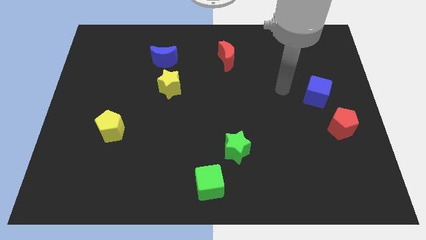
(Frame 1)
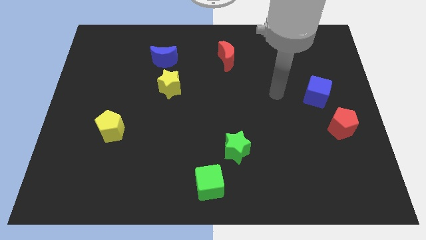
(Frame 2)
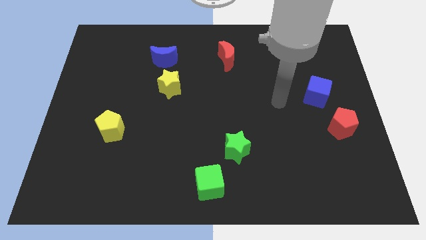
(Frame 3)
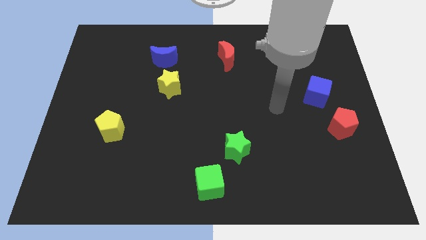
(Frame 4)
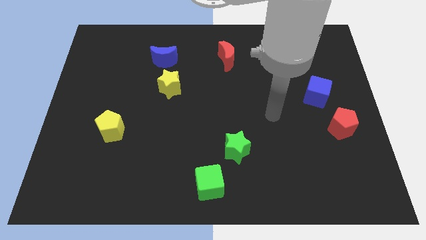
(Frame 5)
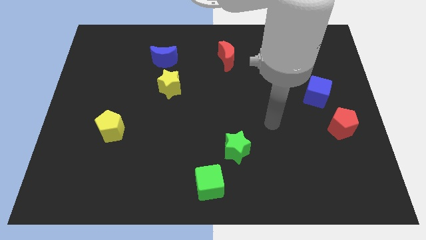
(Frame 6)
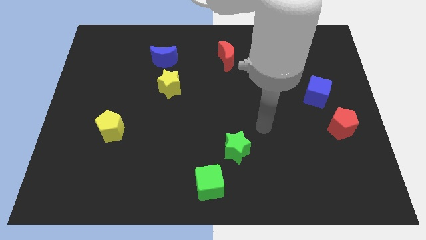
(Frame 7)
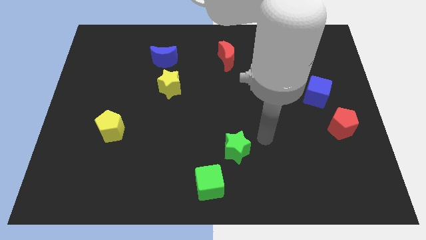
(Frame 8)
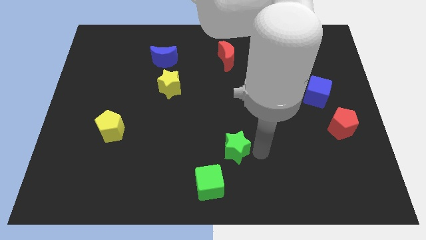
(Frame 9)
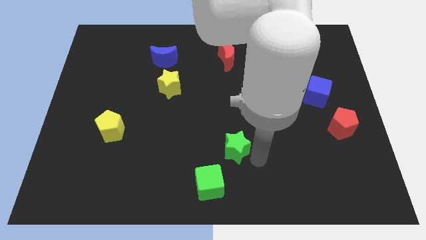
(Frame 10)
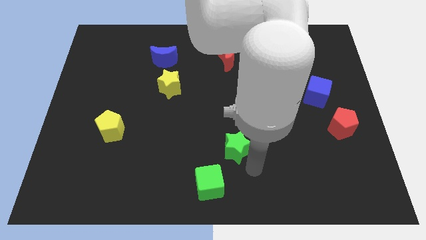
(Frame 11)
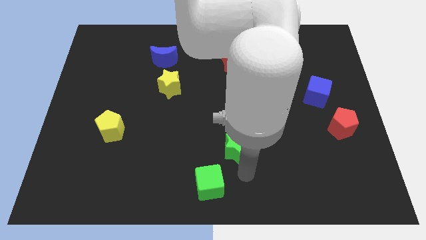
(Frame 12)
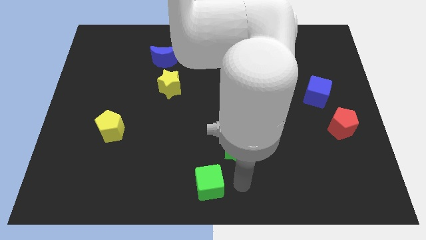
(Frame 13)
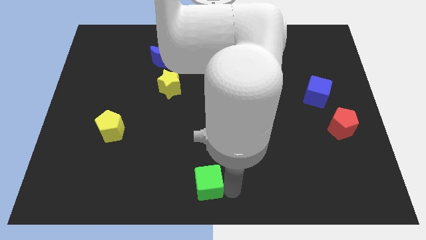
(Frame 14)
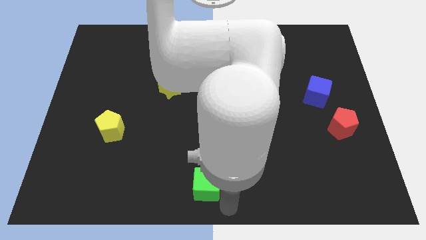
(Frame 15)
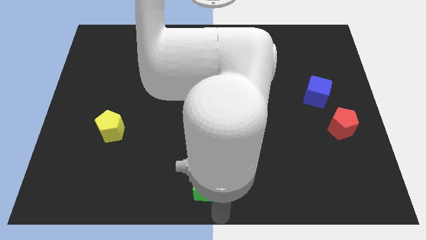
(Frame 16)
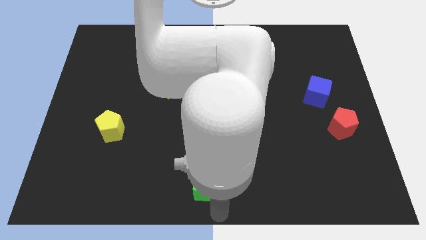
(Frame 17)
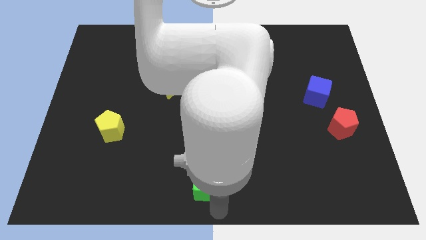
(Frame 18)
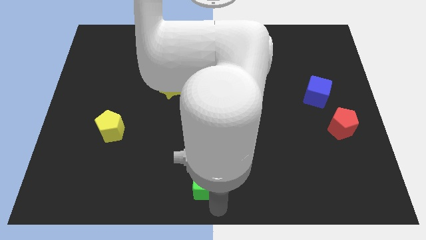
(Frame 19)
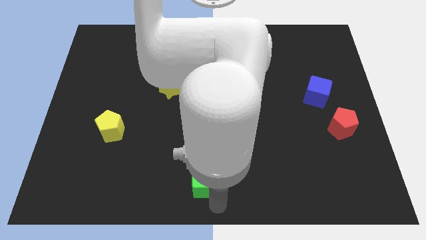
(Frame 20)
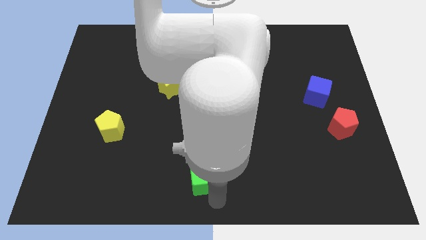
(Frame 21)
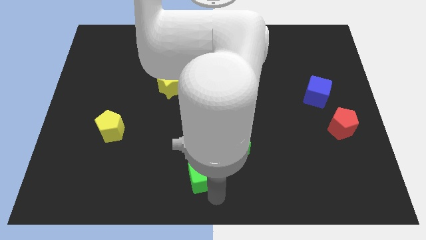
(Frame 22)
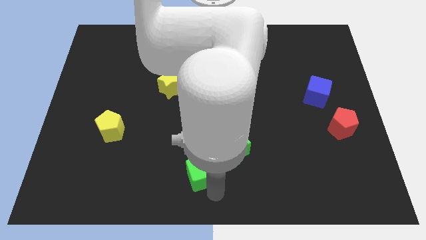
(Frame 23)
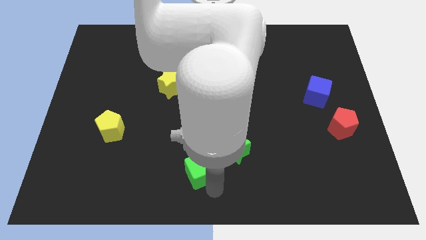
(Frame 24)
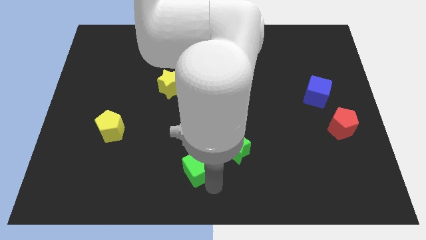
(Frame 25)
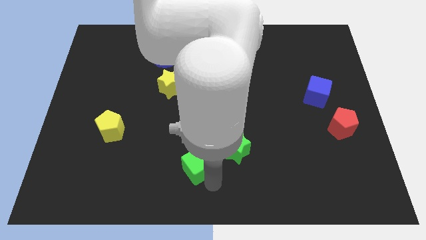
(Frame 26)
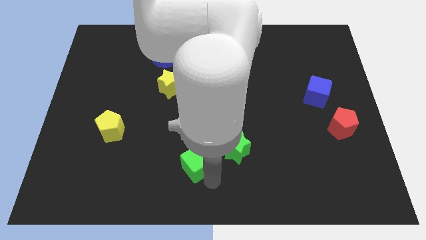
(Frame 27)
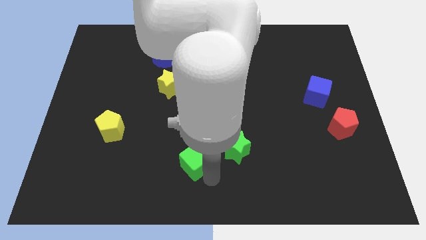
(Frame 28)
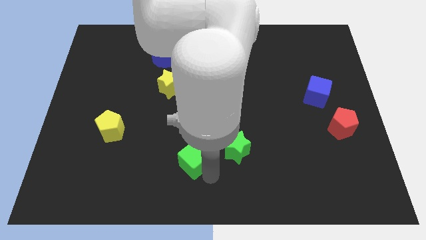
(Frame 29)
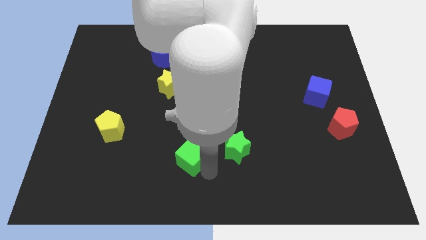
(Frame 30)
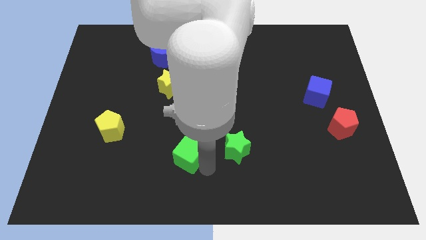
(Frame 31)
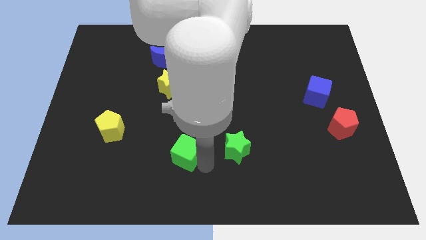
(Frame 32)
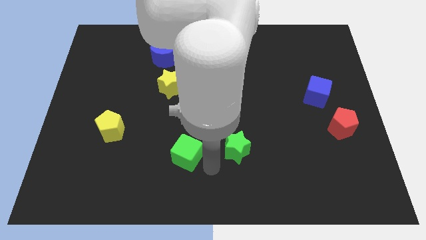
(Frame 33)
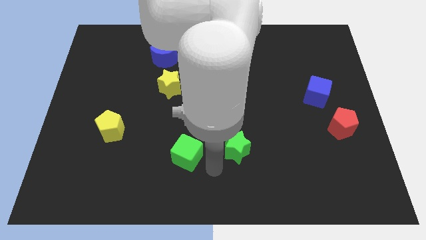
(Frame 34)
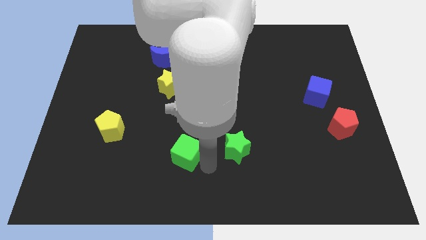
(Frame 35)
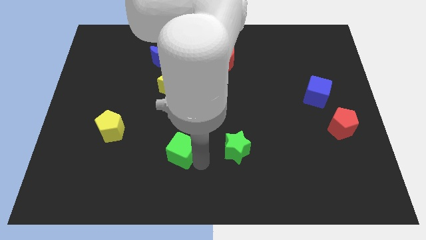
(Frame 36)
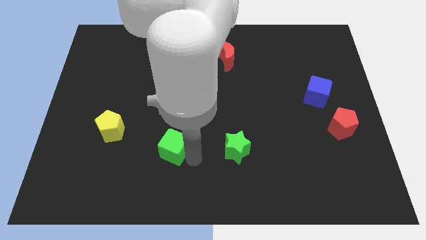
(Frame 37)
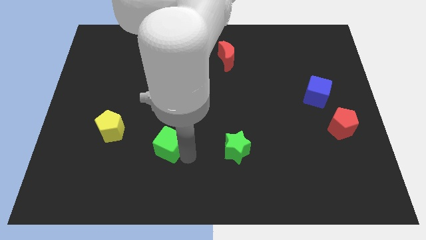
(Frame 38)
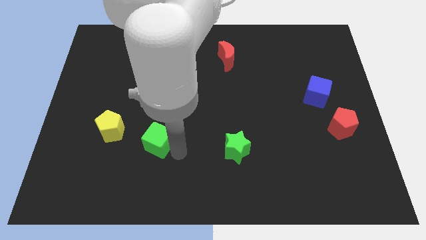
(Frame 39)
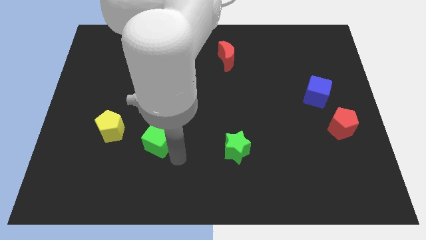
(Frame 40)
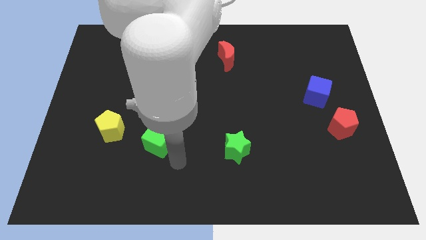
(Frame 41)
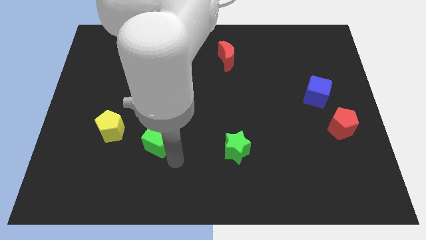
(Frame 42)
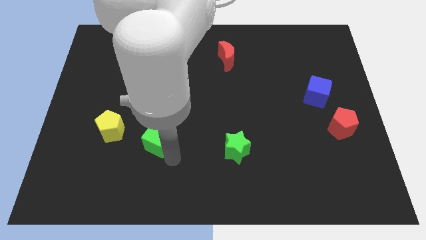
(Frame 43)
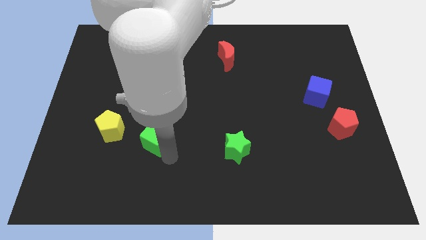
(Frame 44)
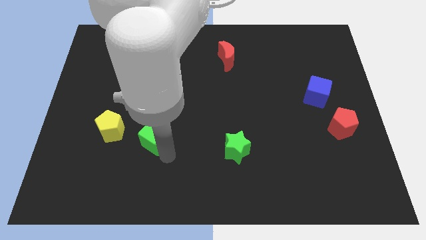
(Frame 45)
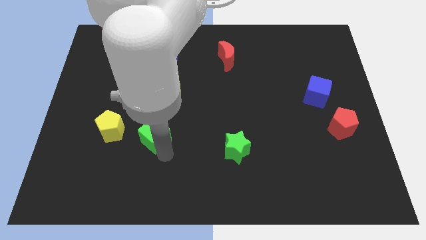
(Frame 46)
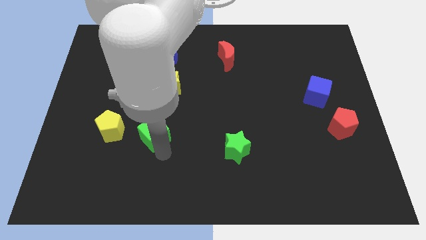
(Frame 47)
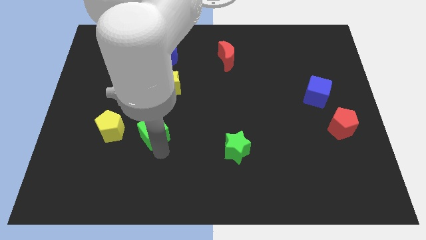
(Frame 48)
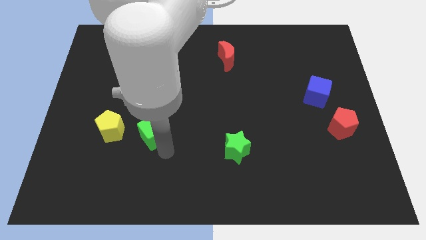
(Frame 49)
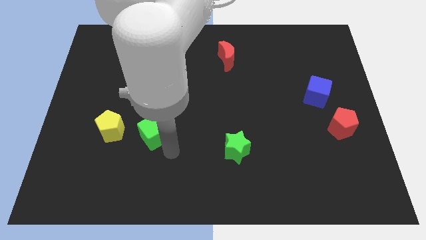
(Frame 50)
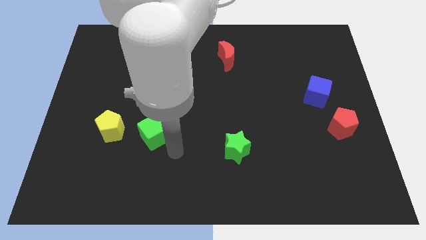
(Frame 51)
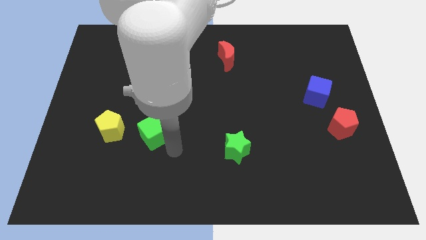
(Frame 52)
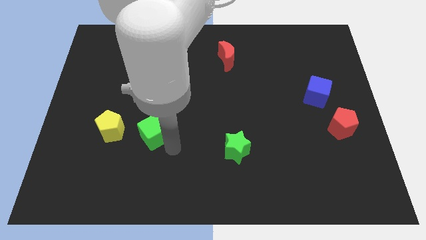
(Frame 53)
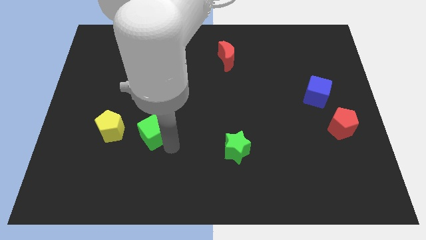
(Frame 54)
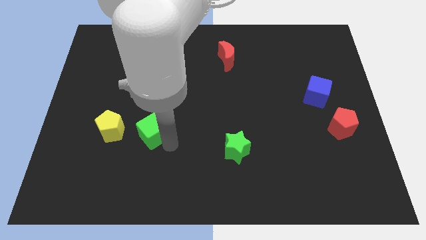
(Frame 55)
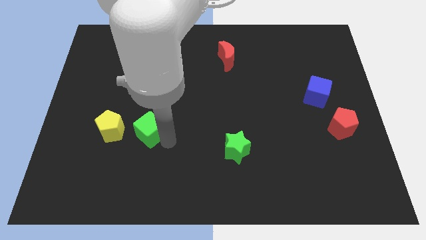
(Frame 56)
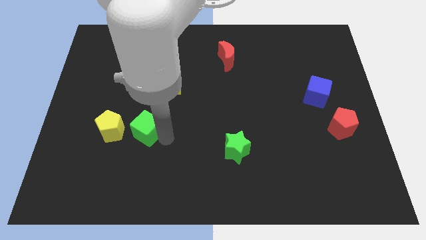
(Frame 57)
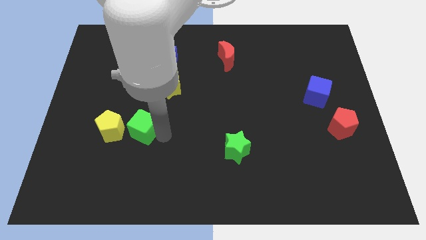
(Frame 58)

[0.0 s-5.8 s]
move the green cube diagonally up and left

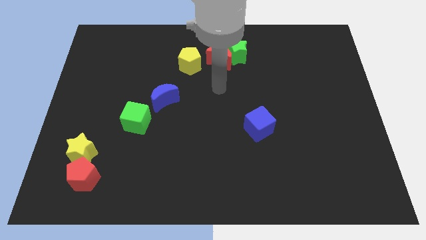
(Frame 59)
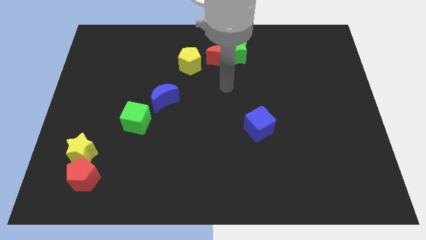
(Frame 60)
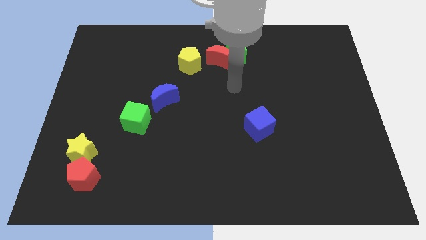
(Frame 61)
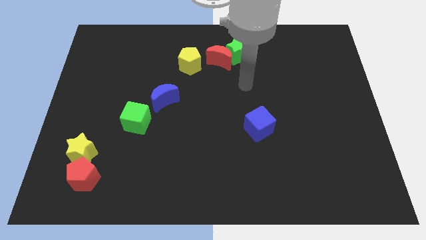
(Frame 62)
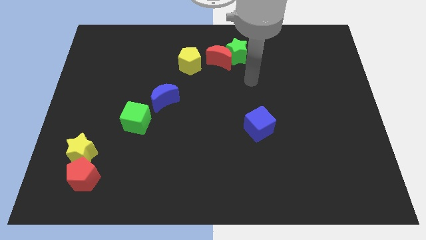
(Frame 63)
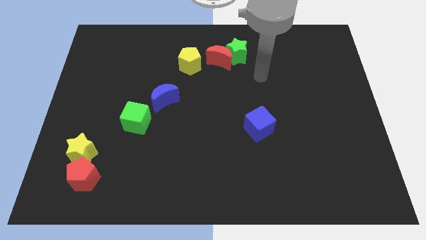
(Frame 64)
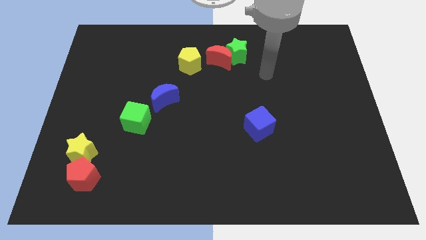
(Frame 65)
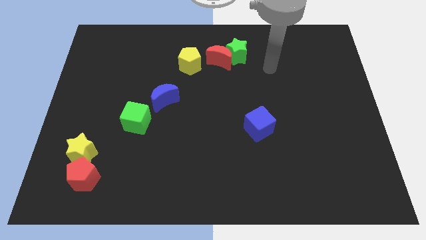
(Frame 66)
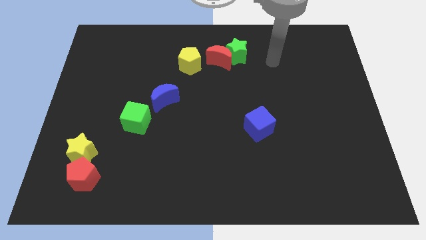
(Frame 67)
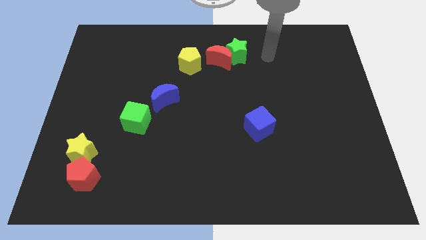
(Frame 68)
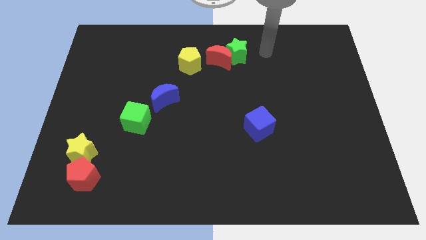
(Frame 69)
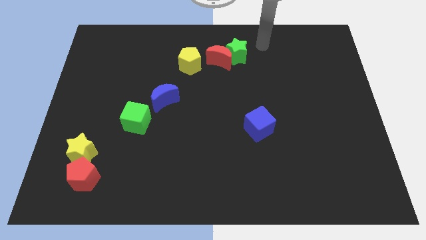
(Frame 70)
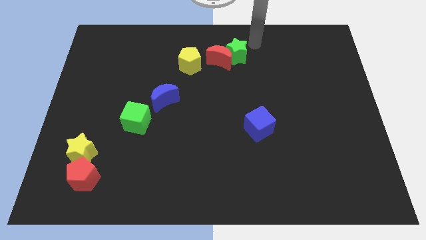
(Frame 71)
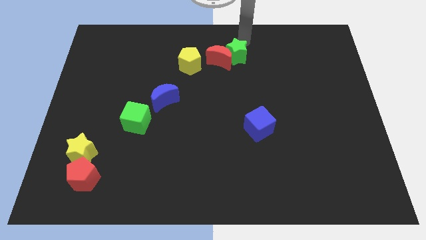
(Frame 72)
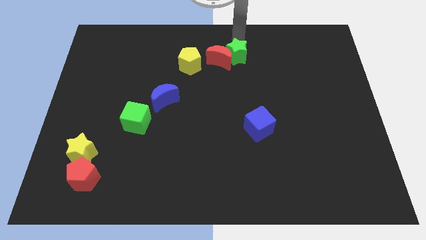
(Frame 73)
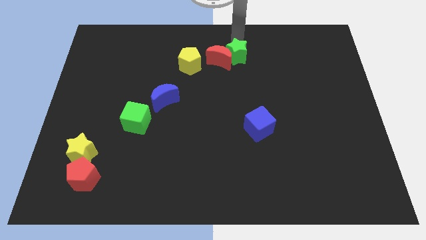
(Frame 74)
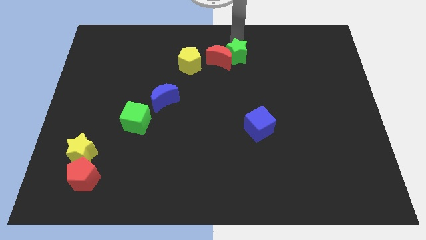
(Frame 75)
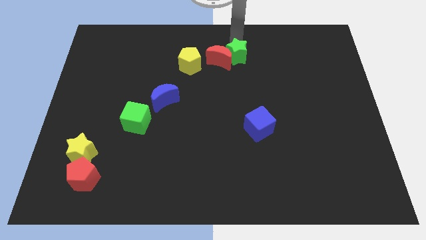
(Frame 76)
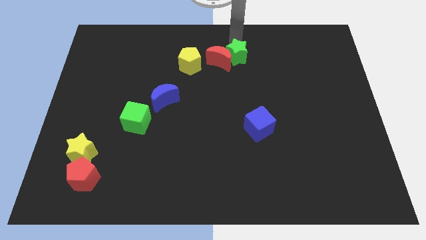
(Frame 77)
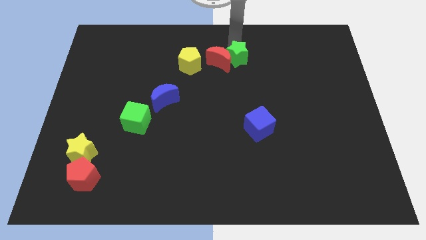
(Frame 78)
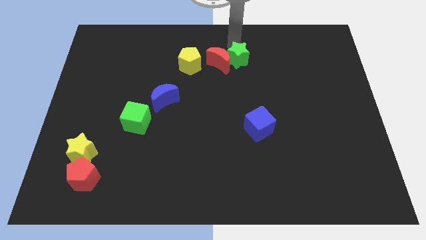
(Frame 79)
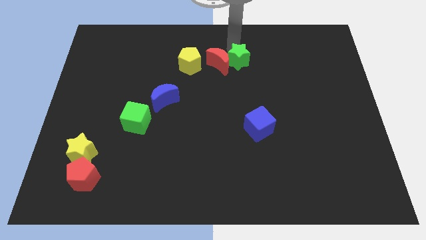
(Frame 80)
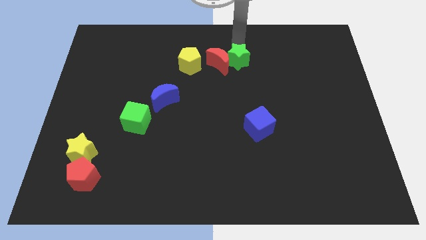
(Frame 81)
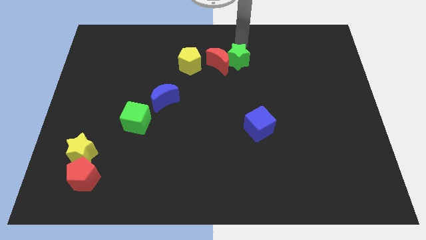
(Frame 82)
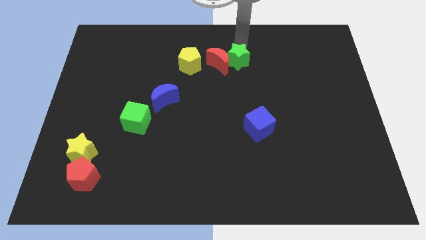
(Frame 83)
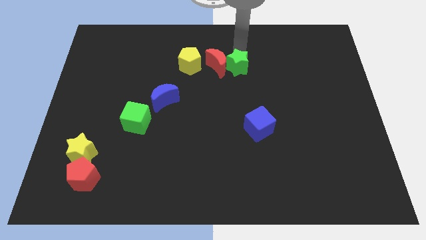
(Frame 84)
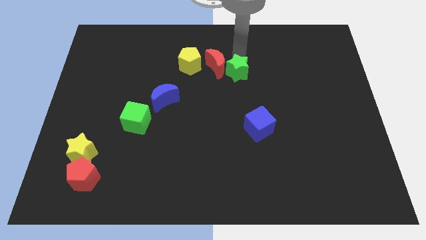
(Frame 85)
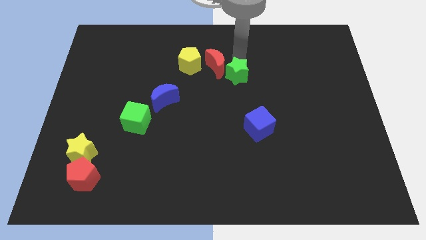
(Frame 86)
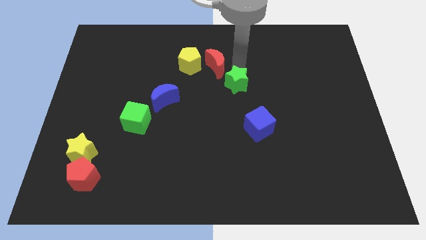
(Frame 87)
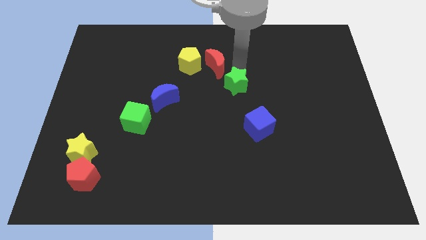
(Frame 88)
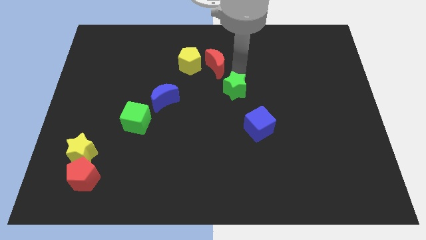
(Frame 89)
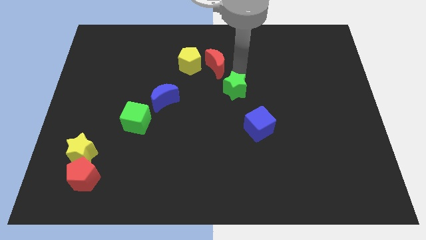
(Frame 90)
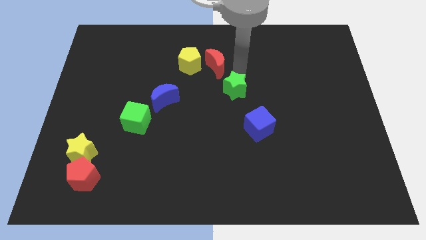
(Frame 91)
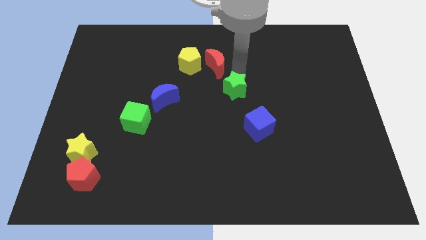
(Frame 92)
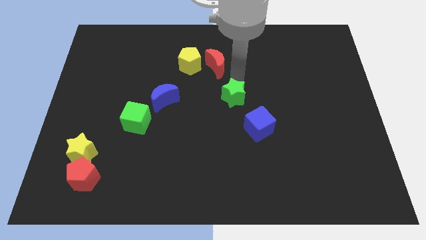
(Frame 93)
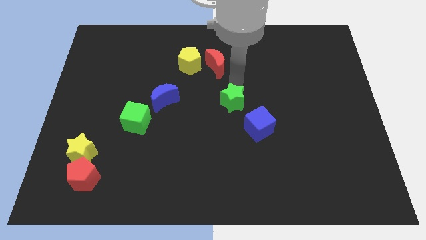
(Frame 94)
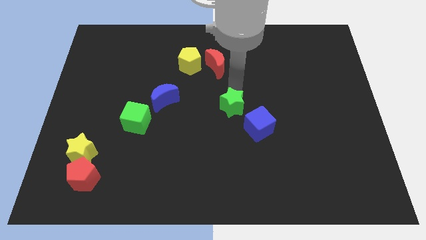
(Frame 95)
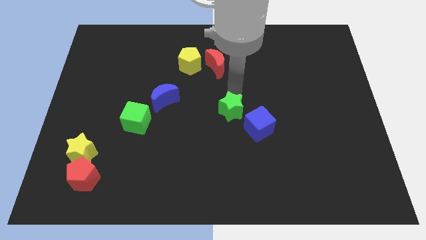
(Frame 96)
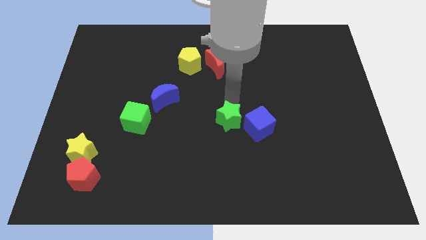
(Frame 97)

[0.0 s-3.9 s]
slide the green star down
